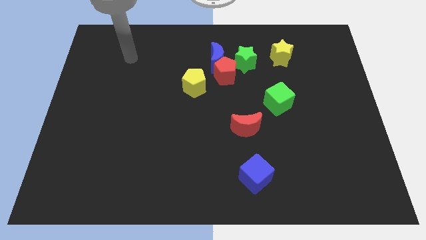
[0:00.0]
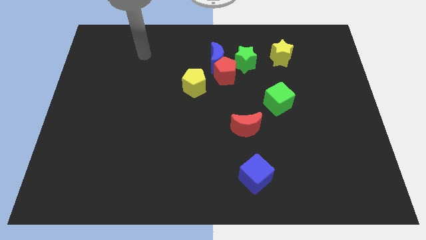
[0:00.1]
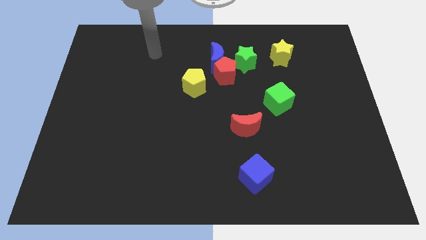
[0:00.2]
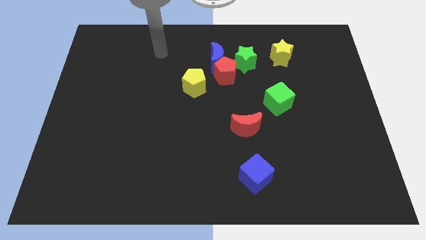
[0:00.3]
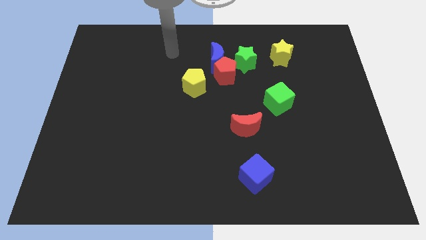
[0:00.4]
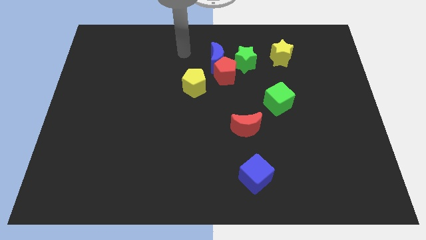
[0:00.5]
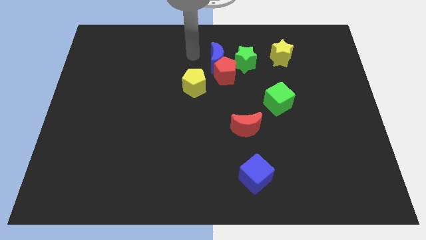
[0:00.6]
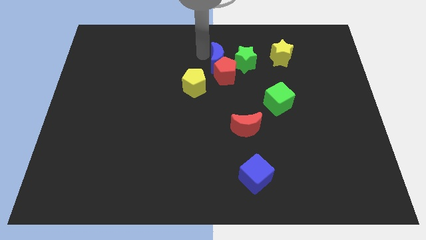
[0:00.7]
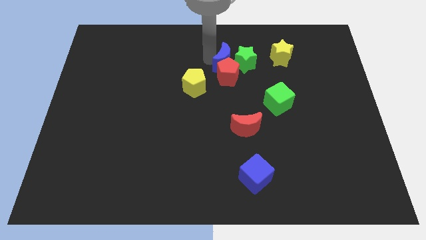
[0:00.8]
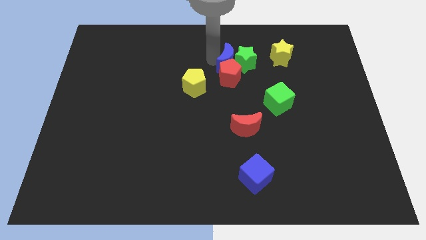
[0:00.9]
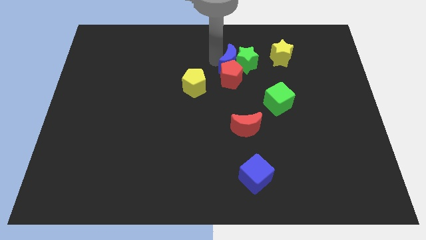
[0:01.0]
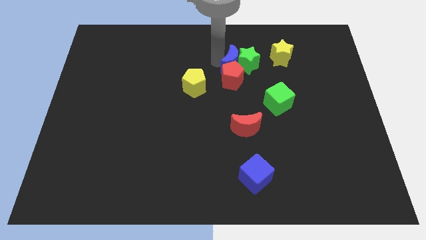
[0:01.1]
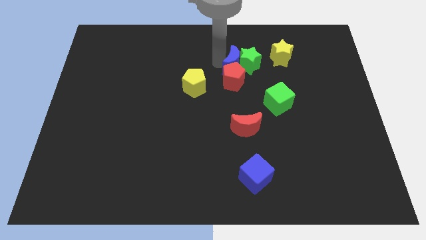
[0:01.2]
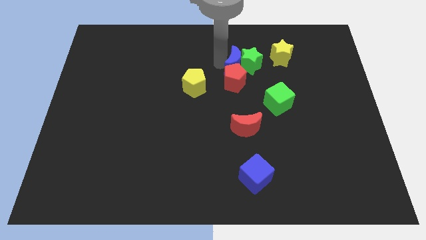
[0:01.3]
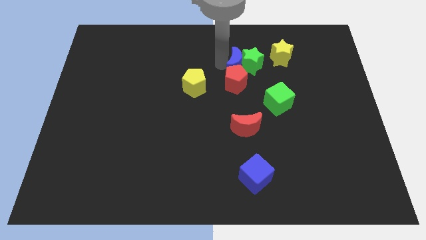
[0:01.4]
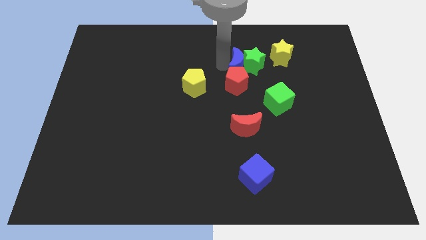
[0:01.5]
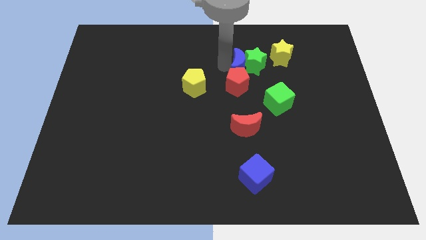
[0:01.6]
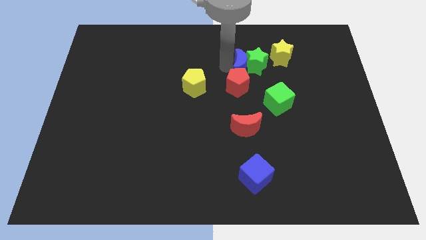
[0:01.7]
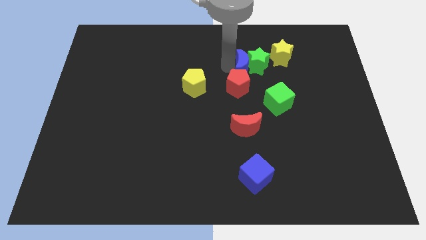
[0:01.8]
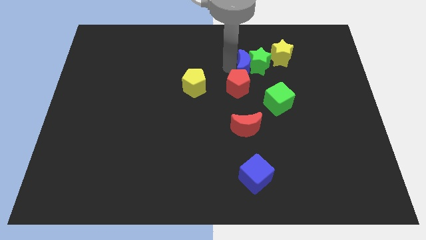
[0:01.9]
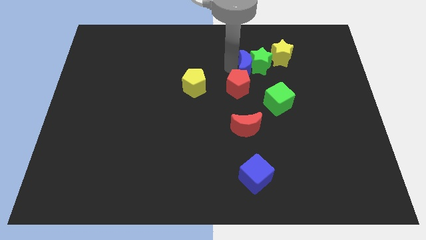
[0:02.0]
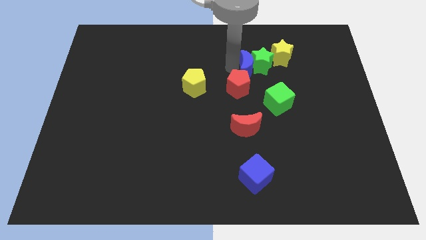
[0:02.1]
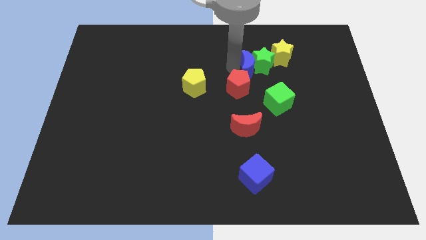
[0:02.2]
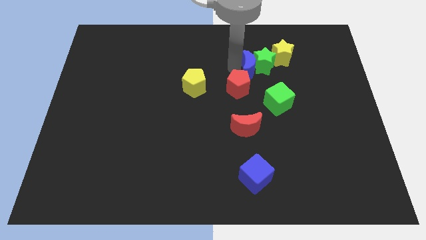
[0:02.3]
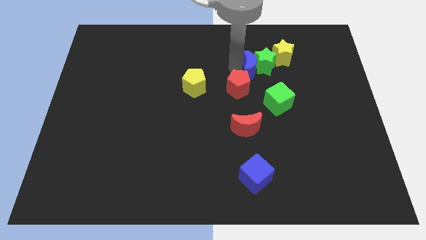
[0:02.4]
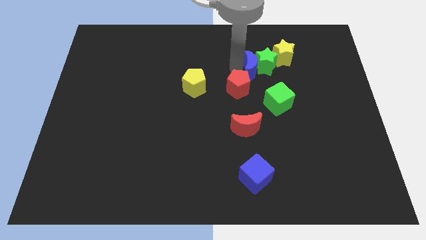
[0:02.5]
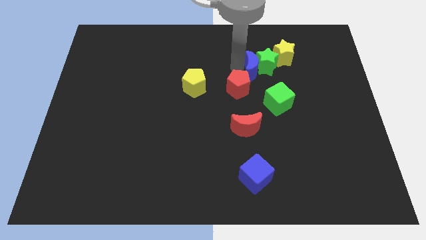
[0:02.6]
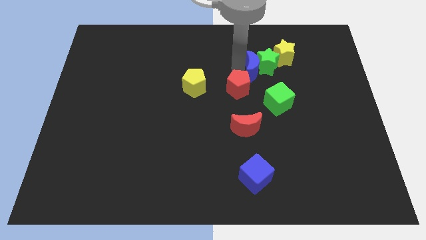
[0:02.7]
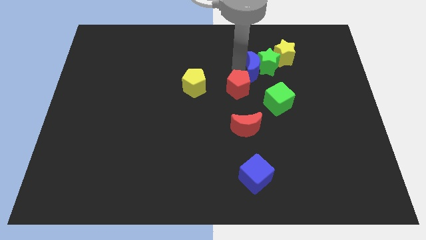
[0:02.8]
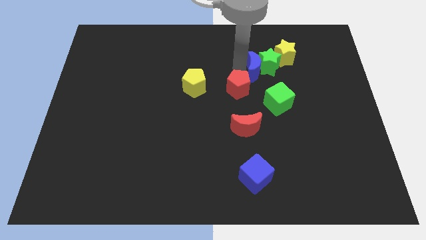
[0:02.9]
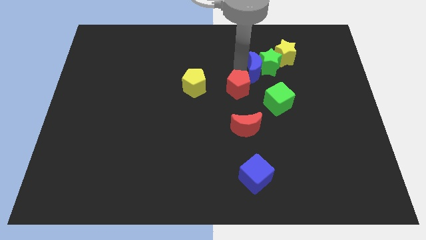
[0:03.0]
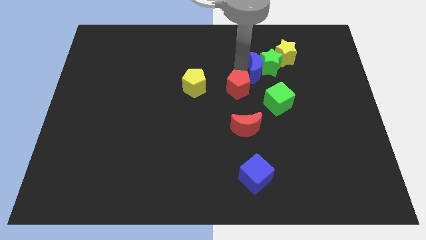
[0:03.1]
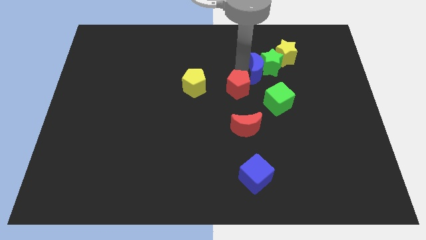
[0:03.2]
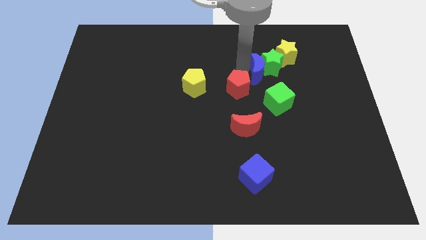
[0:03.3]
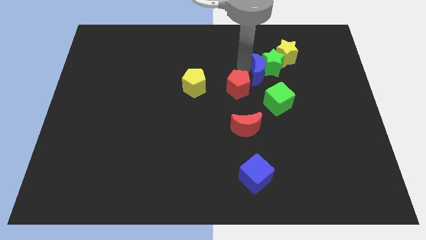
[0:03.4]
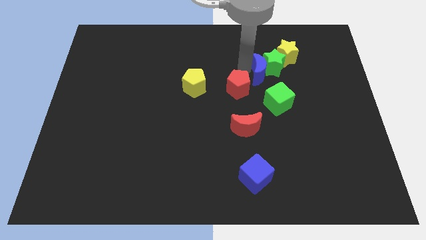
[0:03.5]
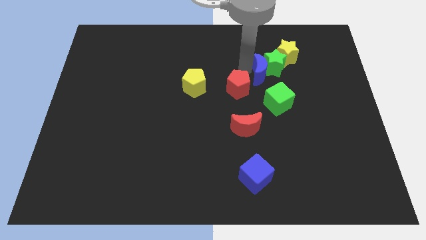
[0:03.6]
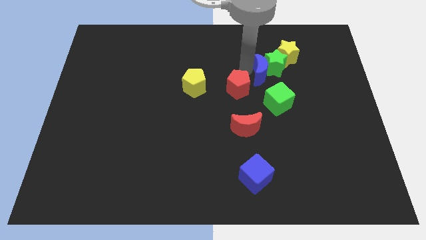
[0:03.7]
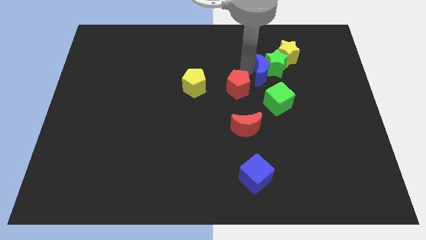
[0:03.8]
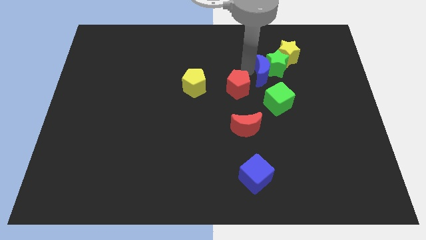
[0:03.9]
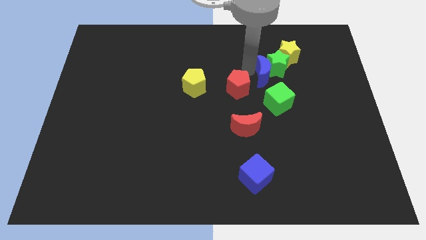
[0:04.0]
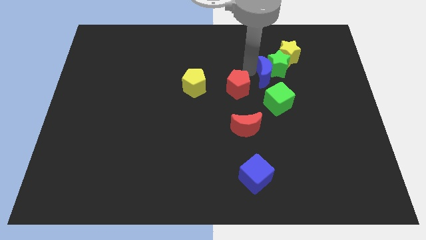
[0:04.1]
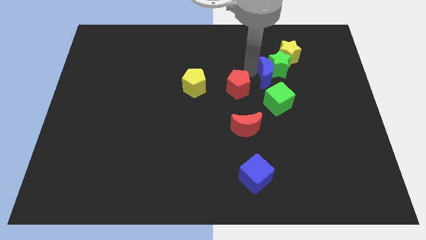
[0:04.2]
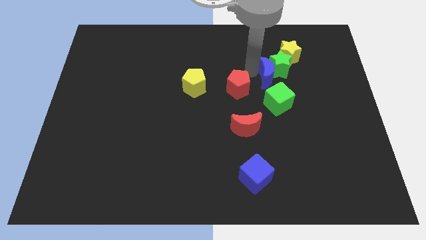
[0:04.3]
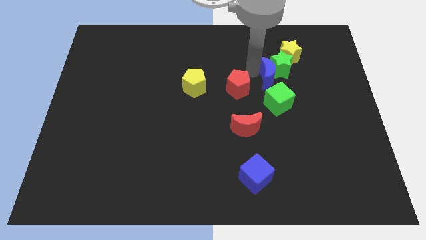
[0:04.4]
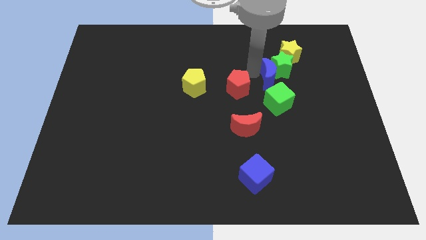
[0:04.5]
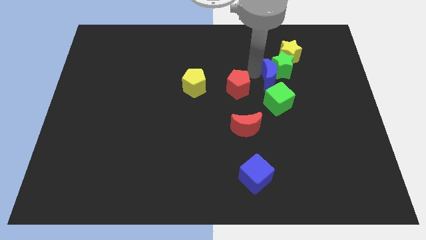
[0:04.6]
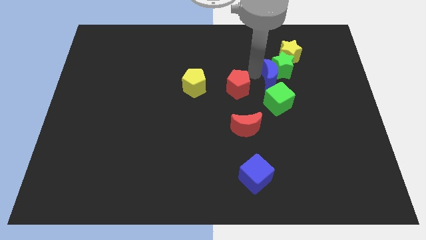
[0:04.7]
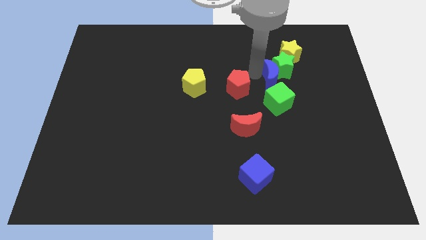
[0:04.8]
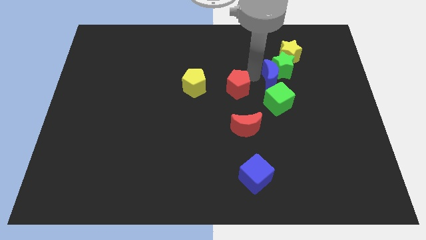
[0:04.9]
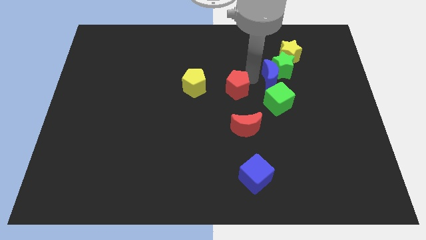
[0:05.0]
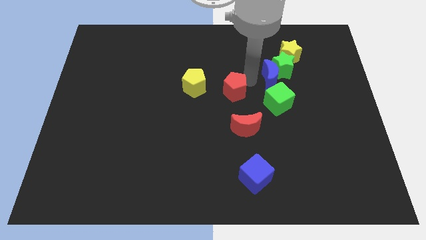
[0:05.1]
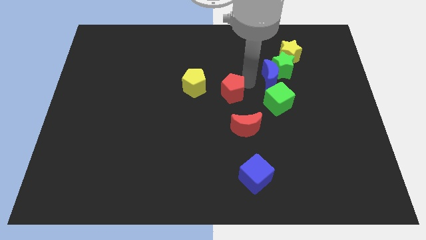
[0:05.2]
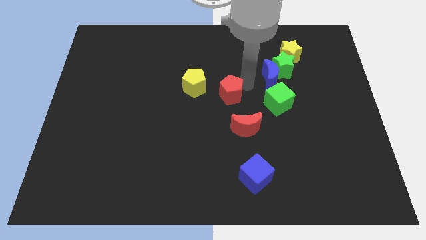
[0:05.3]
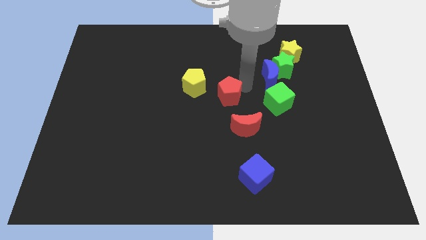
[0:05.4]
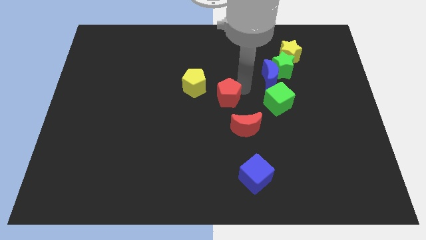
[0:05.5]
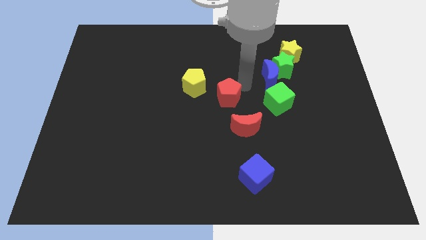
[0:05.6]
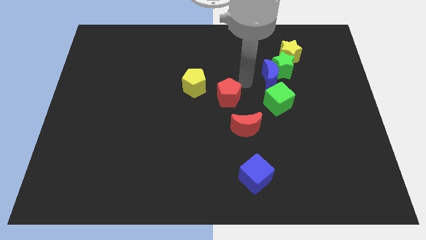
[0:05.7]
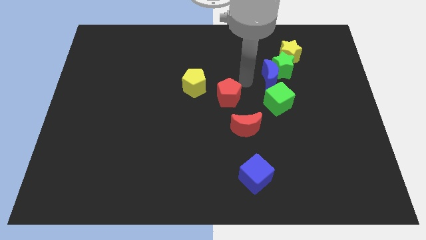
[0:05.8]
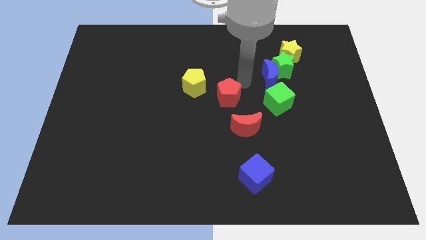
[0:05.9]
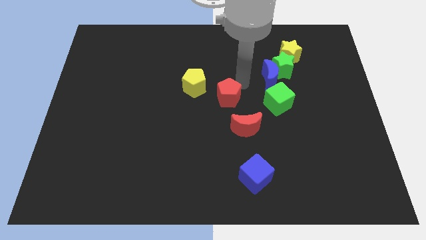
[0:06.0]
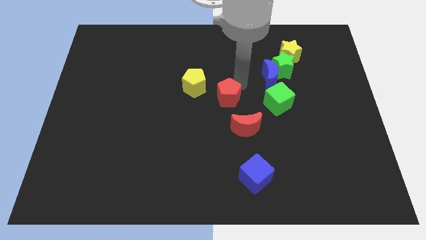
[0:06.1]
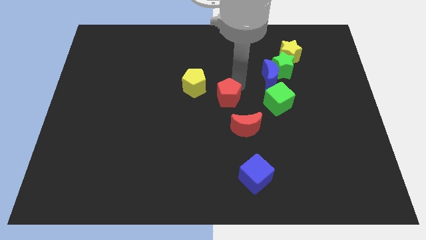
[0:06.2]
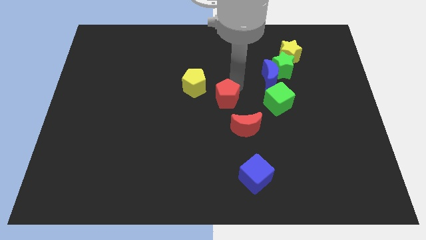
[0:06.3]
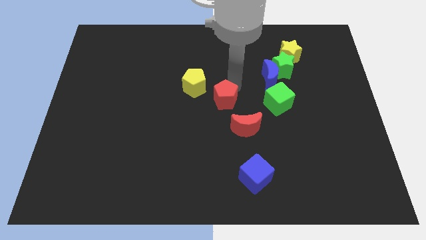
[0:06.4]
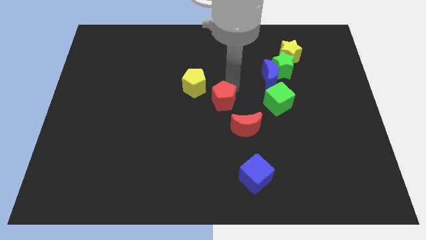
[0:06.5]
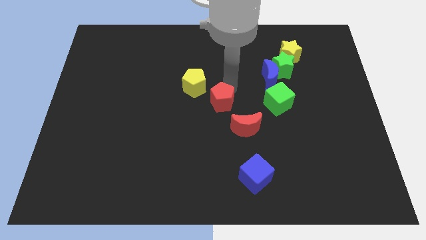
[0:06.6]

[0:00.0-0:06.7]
separate the red pentagon from the blue moon, green star, and yellow pentagon

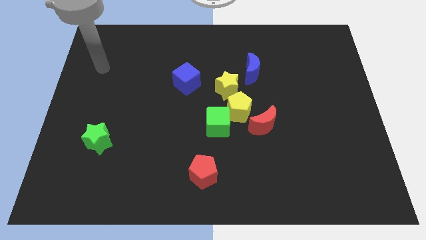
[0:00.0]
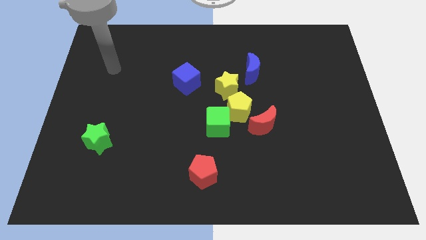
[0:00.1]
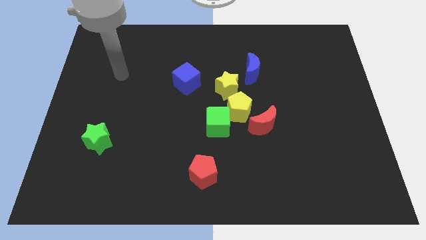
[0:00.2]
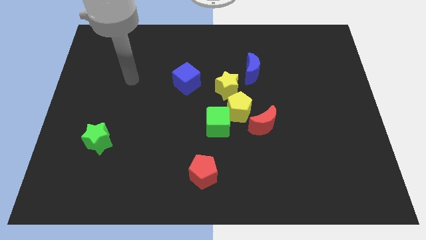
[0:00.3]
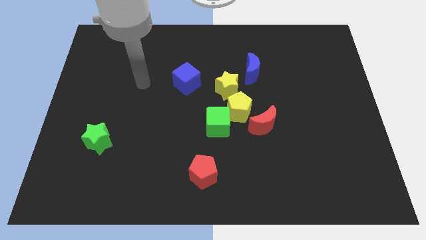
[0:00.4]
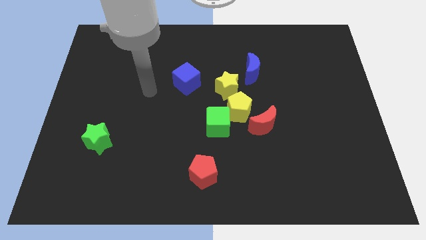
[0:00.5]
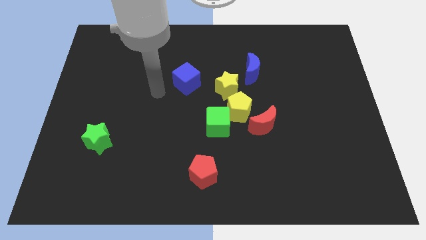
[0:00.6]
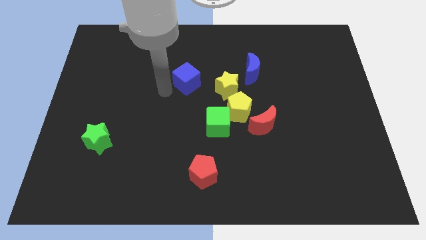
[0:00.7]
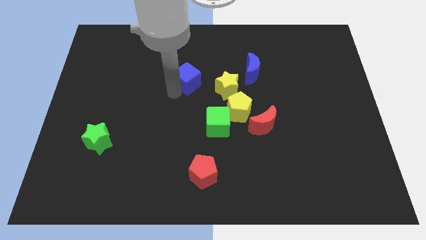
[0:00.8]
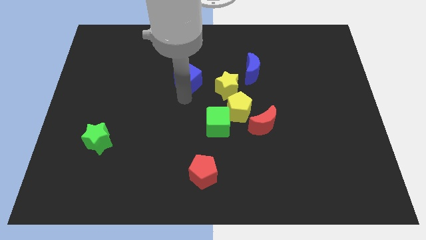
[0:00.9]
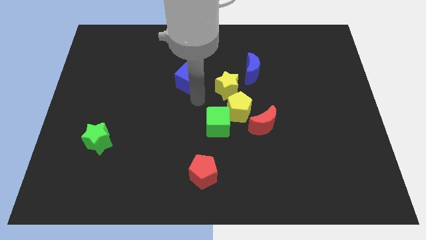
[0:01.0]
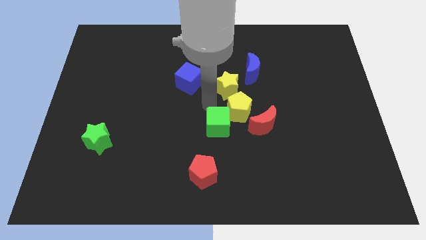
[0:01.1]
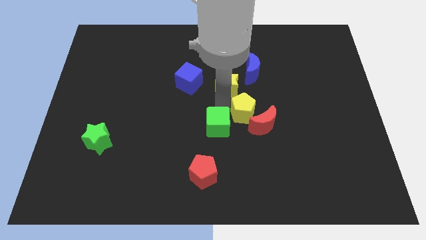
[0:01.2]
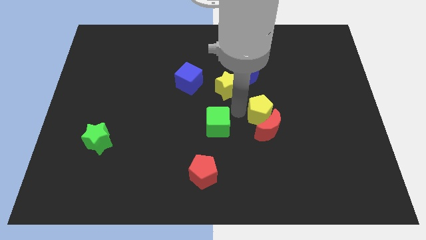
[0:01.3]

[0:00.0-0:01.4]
move the green cube away from the yellow pentagon

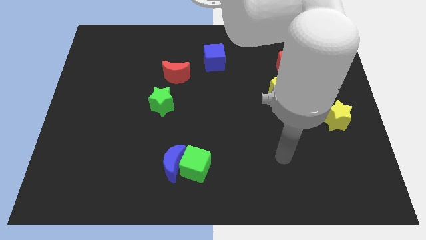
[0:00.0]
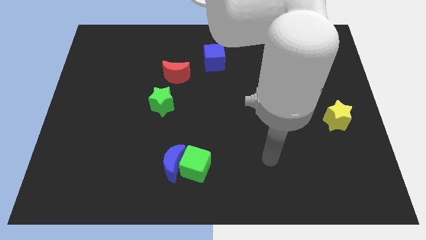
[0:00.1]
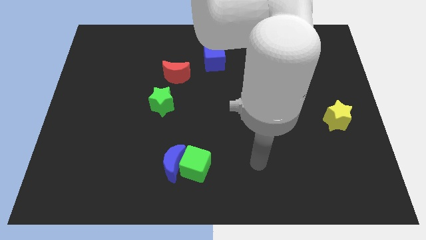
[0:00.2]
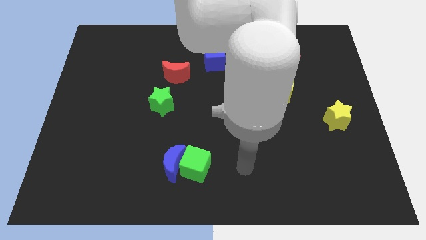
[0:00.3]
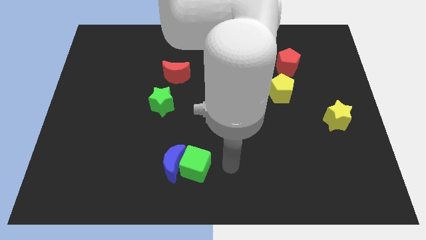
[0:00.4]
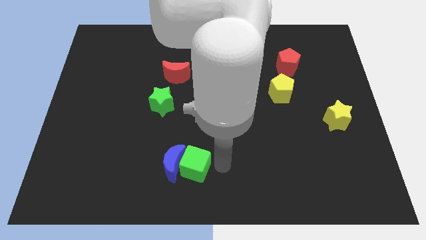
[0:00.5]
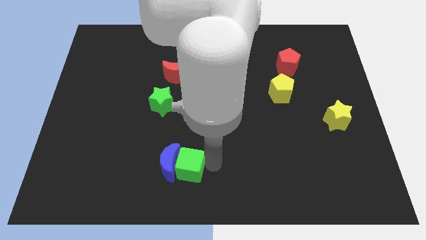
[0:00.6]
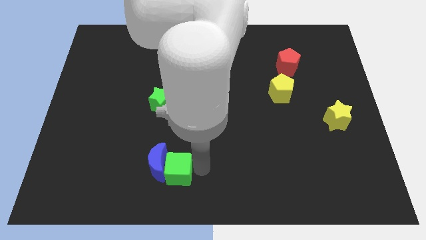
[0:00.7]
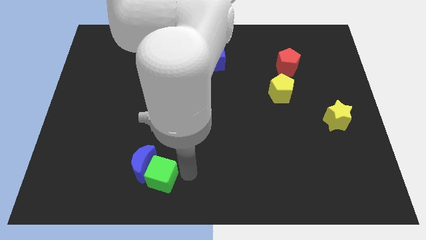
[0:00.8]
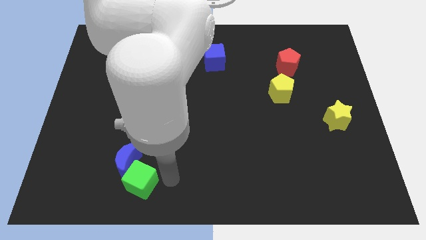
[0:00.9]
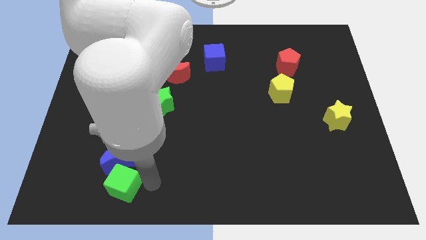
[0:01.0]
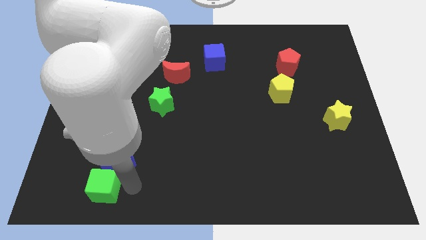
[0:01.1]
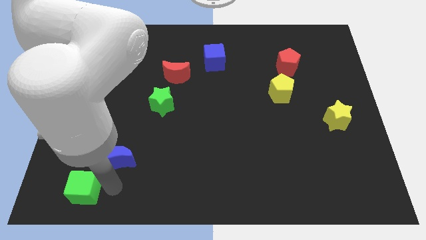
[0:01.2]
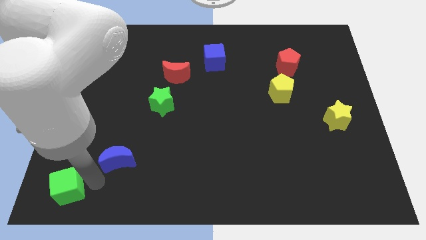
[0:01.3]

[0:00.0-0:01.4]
pull the blue moon apart from the green cube
